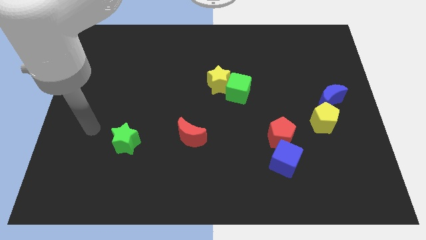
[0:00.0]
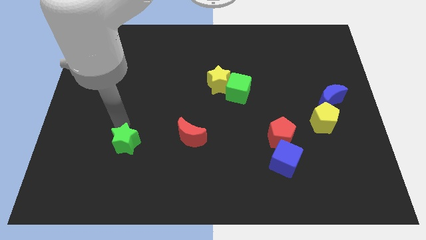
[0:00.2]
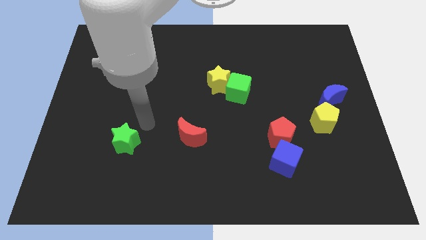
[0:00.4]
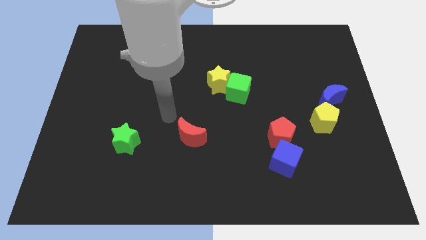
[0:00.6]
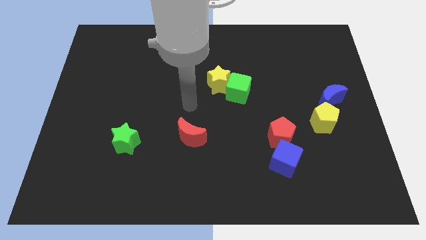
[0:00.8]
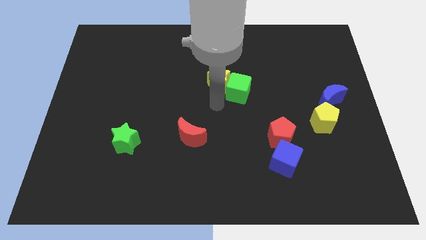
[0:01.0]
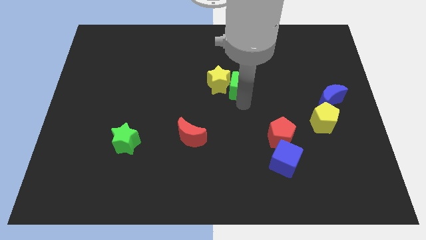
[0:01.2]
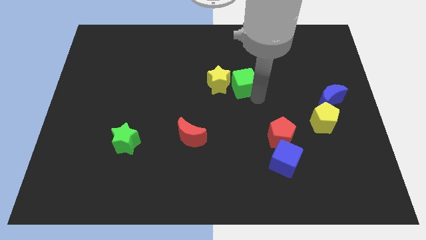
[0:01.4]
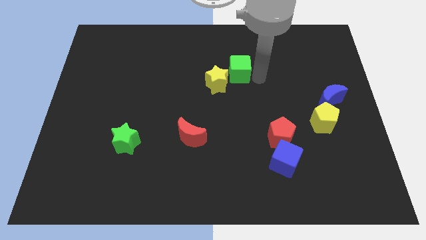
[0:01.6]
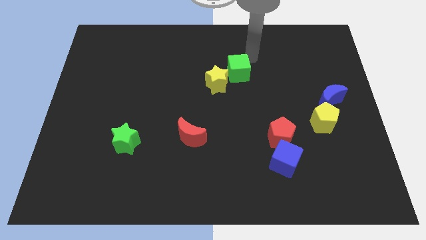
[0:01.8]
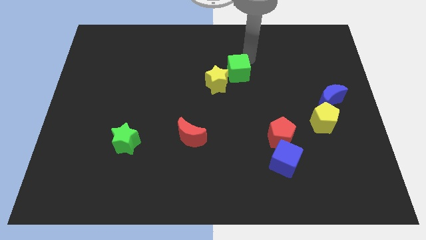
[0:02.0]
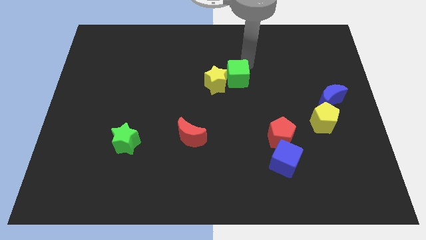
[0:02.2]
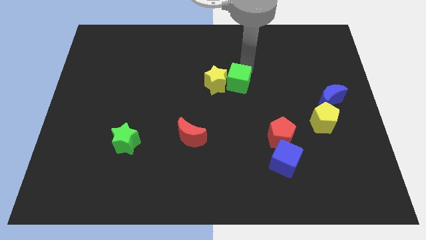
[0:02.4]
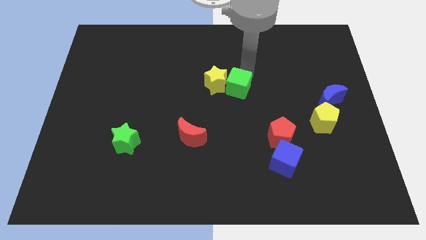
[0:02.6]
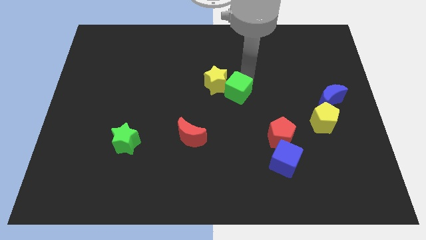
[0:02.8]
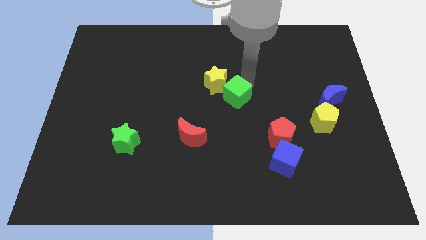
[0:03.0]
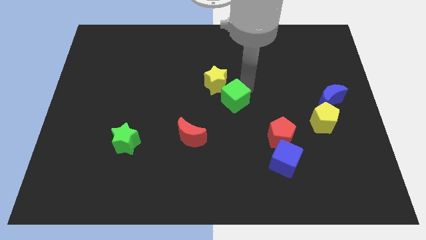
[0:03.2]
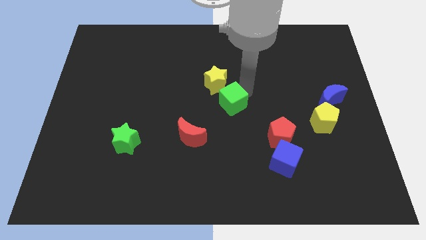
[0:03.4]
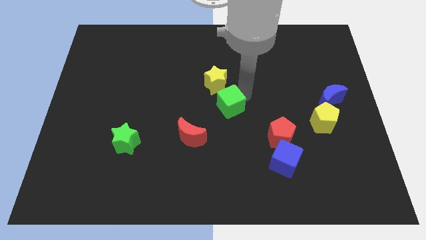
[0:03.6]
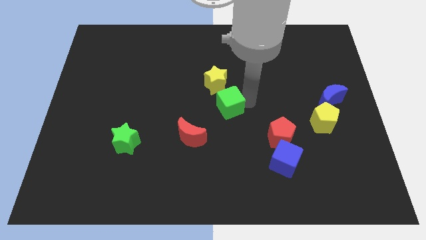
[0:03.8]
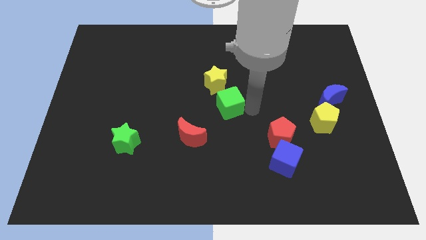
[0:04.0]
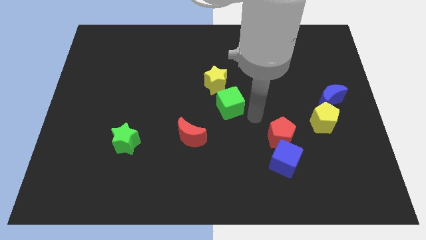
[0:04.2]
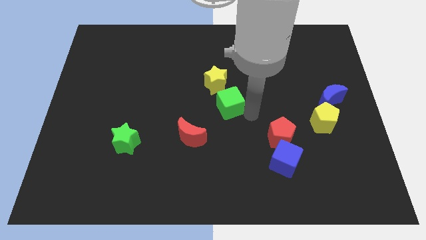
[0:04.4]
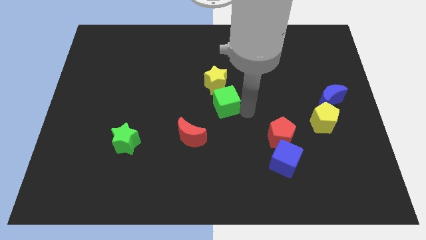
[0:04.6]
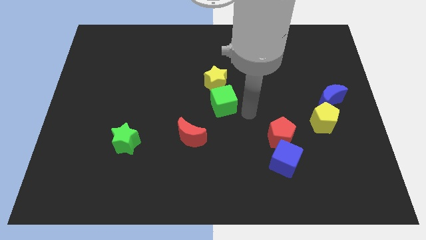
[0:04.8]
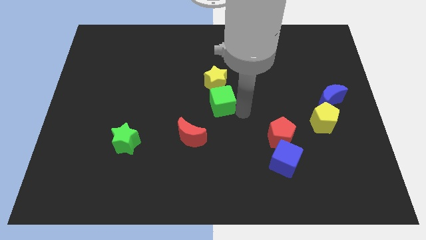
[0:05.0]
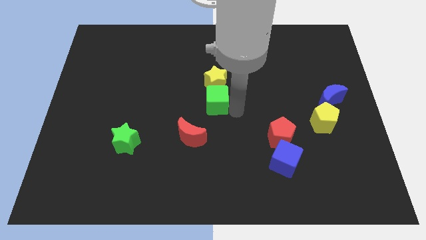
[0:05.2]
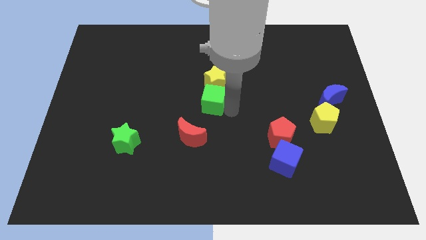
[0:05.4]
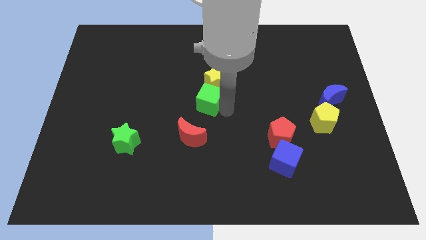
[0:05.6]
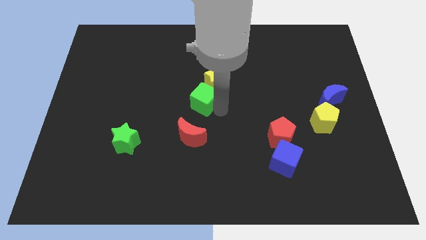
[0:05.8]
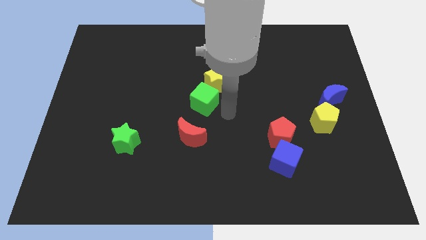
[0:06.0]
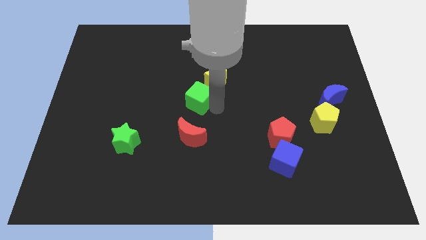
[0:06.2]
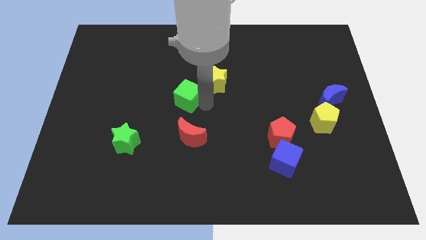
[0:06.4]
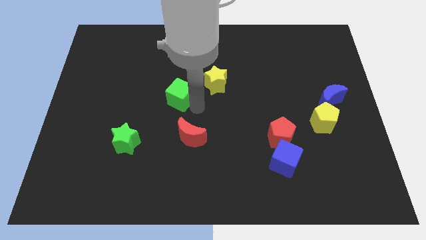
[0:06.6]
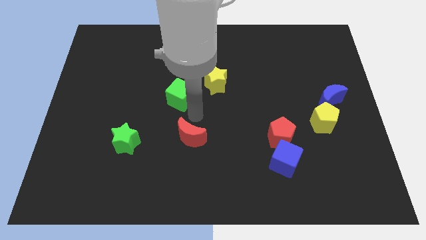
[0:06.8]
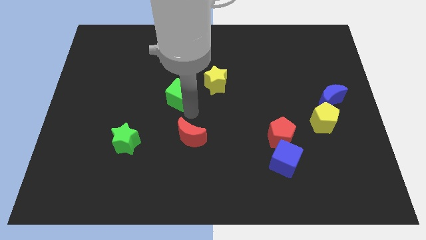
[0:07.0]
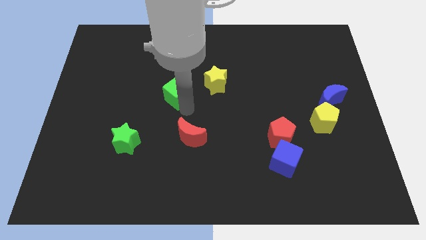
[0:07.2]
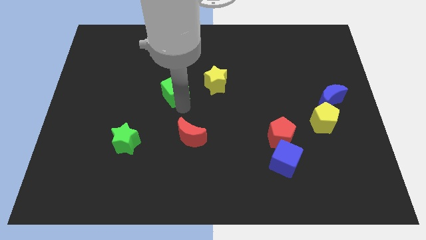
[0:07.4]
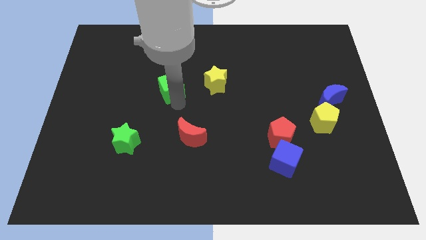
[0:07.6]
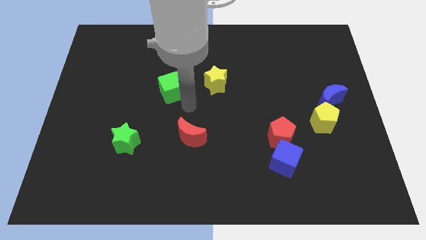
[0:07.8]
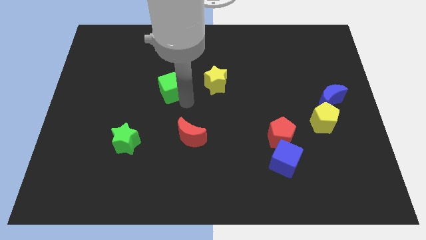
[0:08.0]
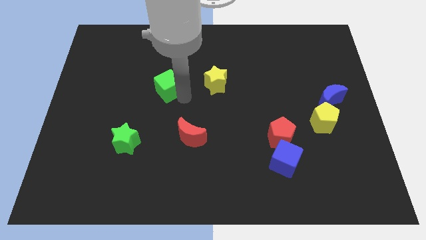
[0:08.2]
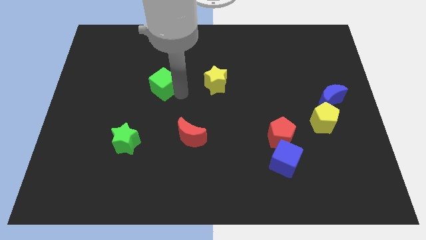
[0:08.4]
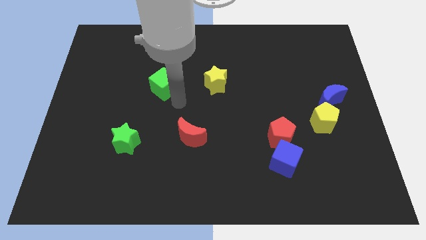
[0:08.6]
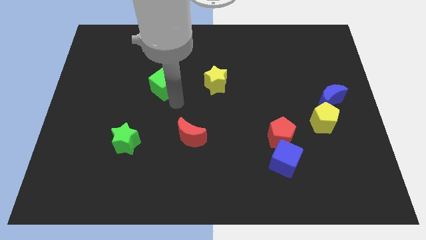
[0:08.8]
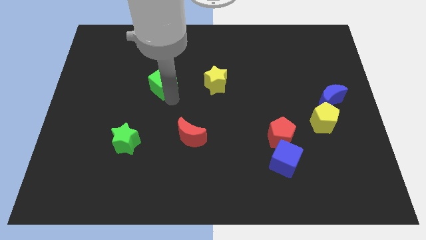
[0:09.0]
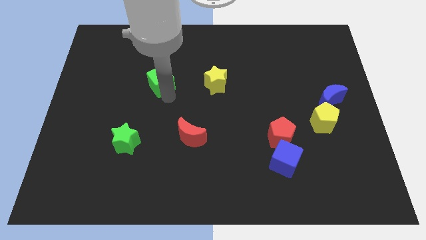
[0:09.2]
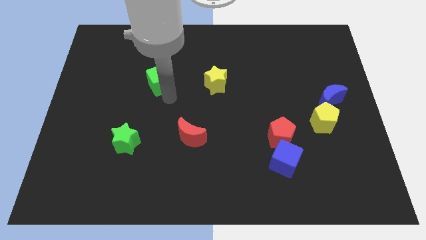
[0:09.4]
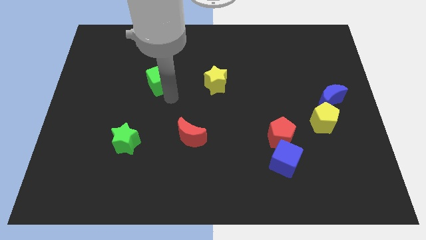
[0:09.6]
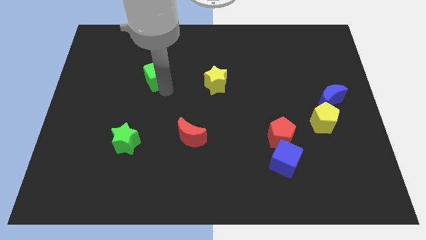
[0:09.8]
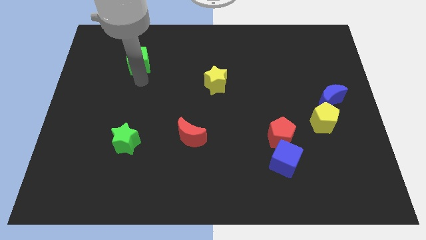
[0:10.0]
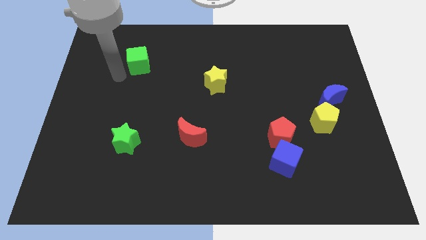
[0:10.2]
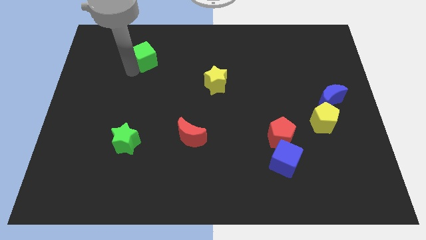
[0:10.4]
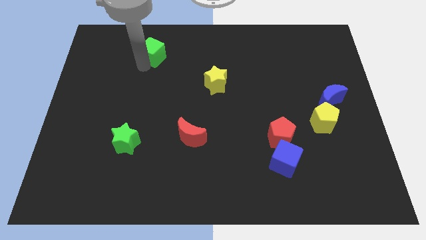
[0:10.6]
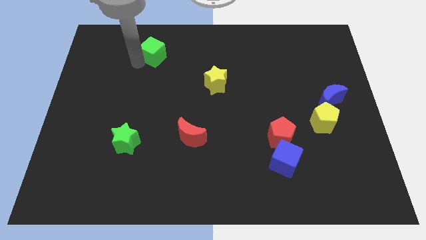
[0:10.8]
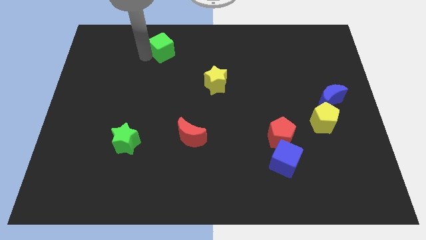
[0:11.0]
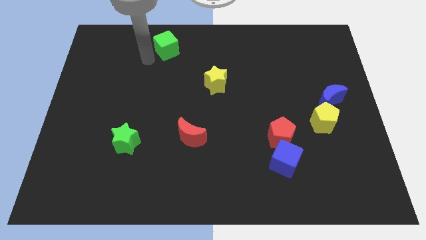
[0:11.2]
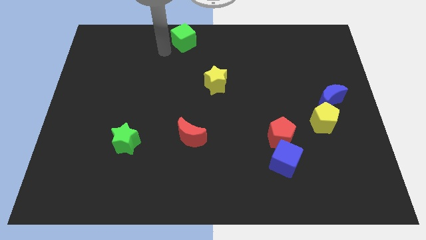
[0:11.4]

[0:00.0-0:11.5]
move the green cube to the top

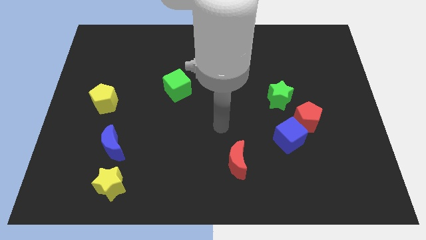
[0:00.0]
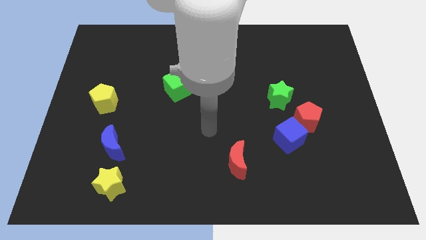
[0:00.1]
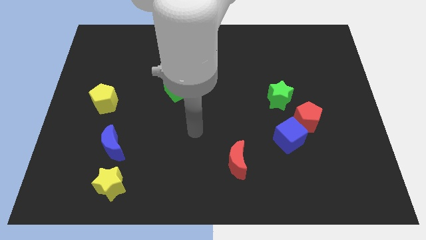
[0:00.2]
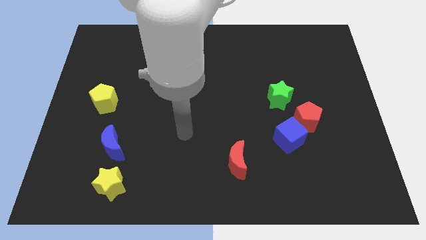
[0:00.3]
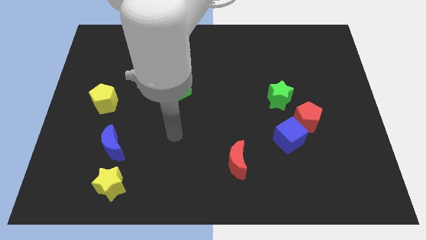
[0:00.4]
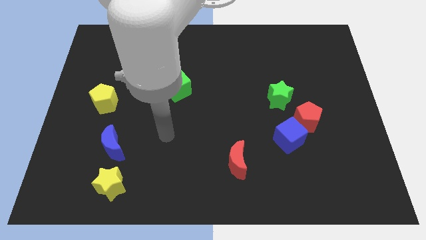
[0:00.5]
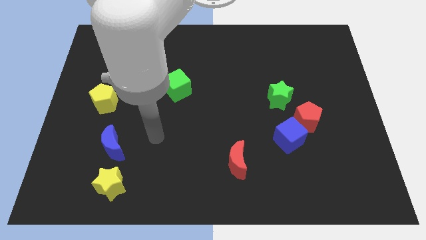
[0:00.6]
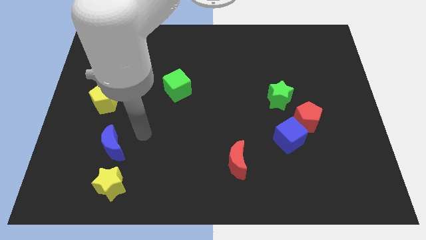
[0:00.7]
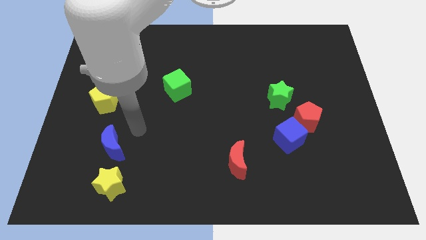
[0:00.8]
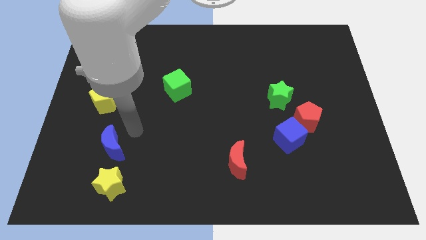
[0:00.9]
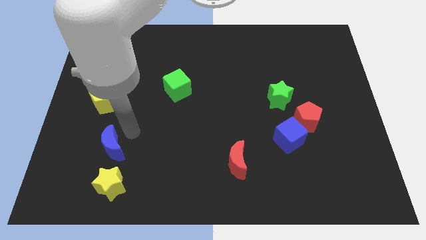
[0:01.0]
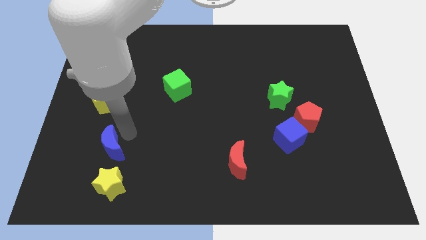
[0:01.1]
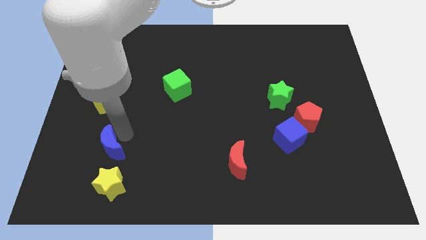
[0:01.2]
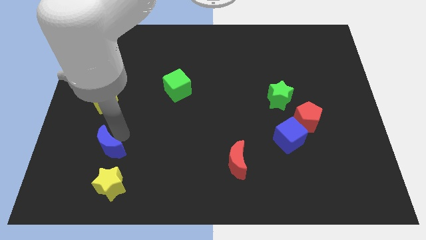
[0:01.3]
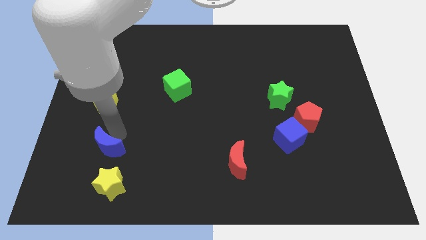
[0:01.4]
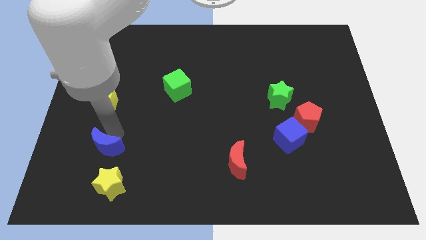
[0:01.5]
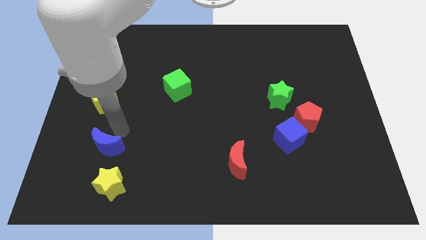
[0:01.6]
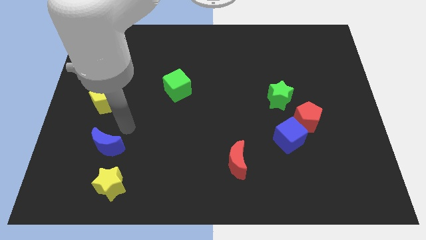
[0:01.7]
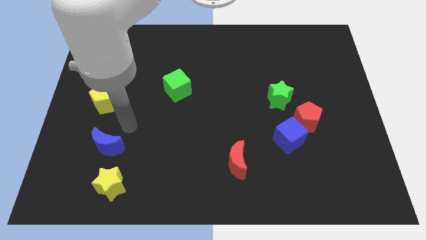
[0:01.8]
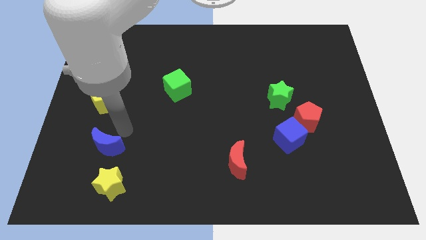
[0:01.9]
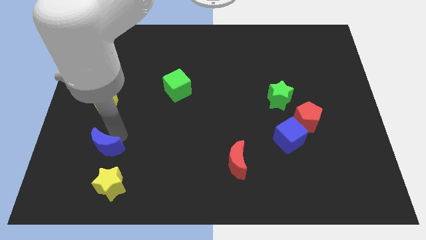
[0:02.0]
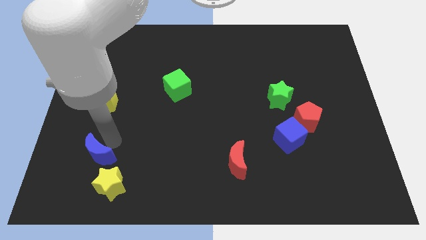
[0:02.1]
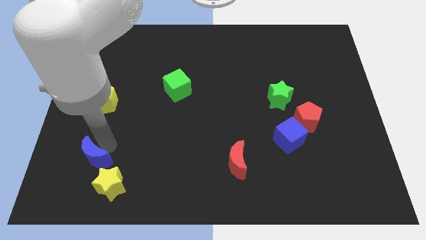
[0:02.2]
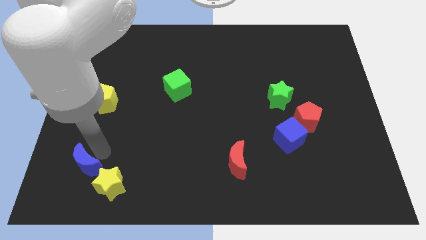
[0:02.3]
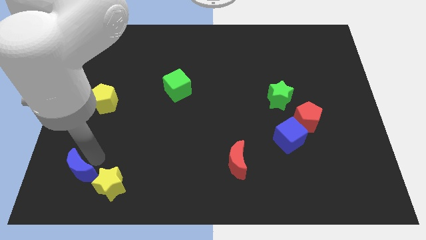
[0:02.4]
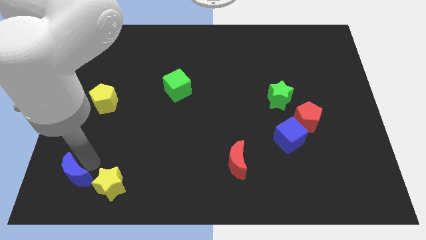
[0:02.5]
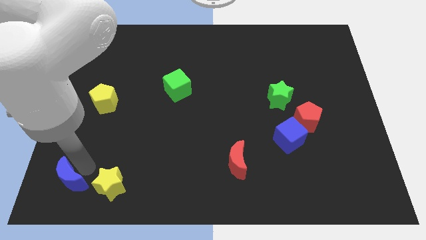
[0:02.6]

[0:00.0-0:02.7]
push the blue moon to the bottom left of the board
